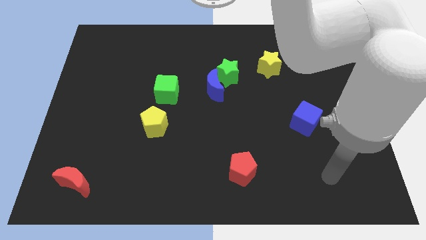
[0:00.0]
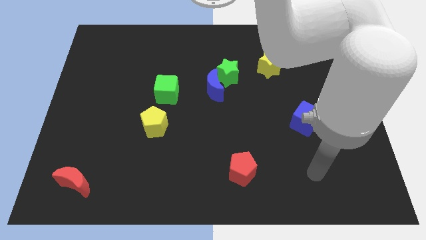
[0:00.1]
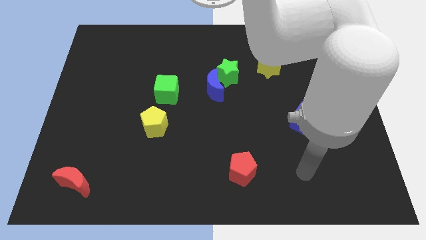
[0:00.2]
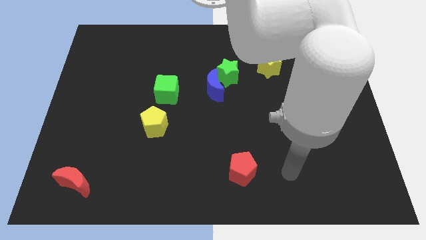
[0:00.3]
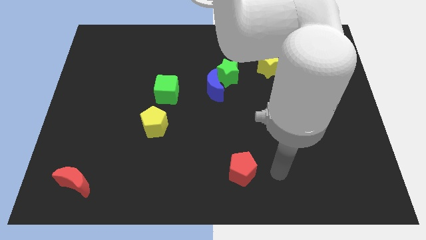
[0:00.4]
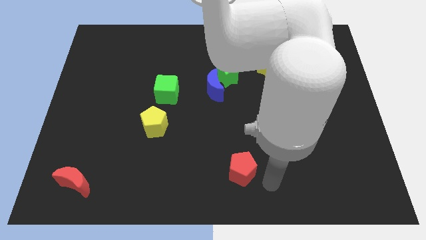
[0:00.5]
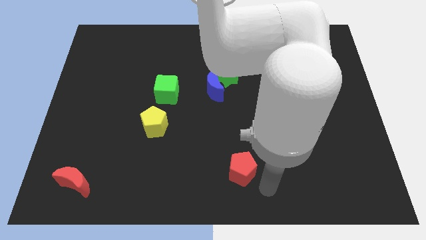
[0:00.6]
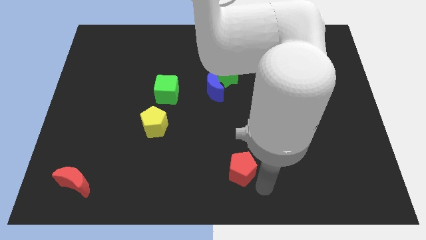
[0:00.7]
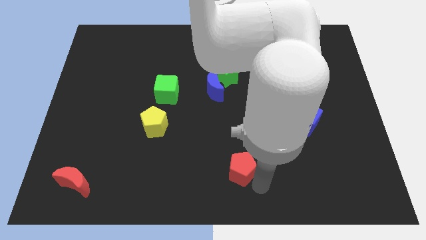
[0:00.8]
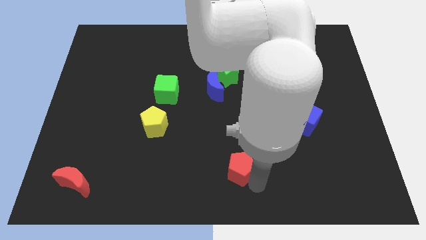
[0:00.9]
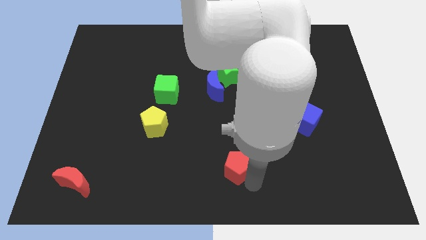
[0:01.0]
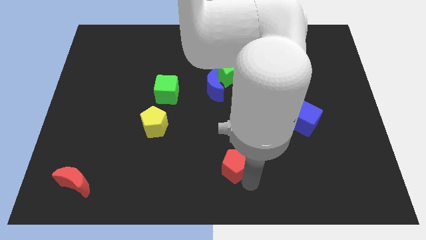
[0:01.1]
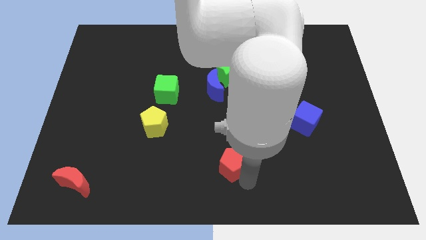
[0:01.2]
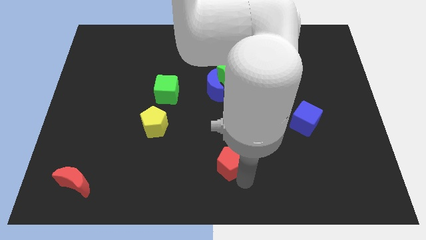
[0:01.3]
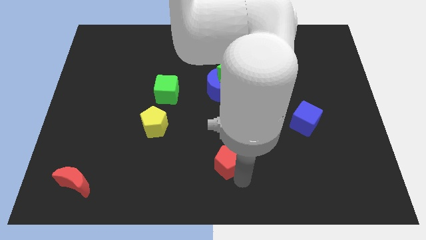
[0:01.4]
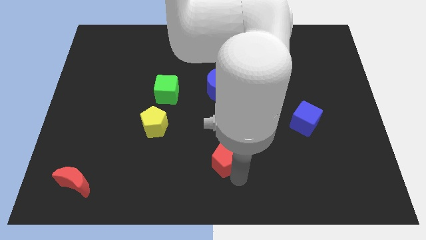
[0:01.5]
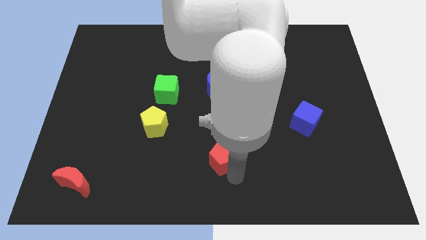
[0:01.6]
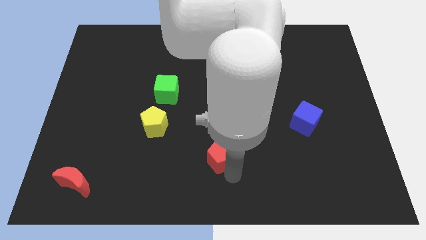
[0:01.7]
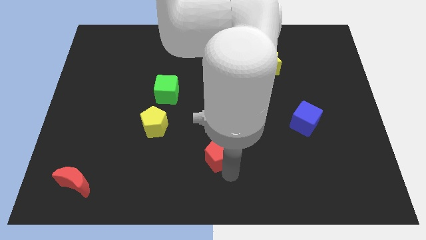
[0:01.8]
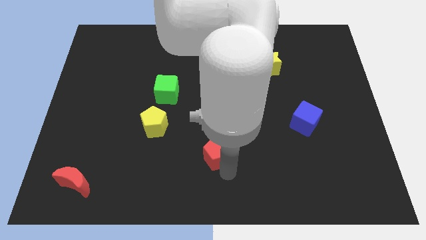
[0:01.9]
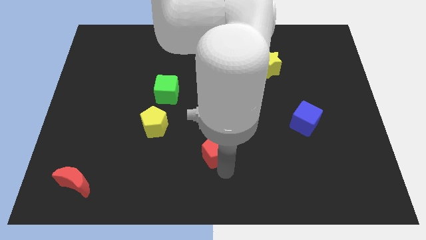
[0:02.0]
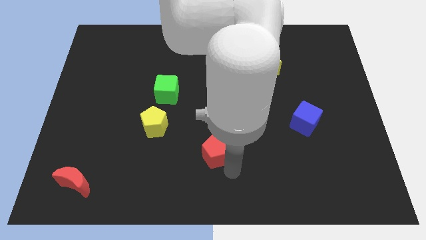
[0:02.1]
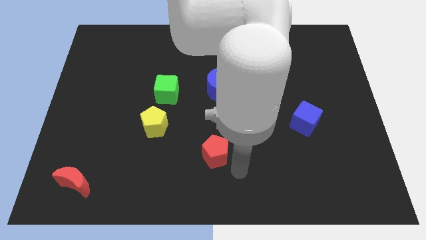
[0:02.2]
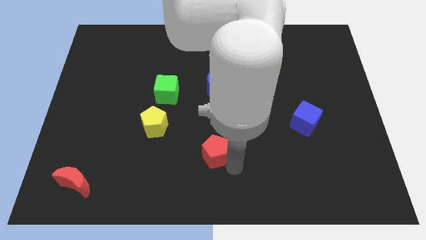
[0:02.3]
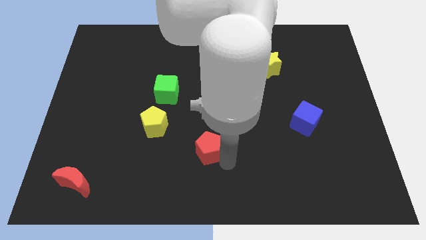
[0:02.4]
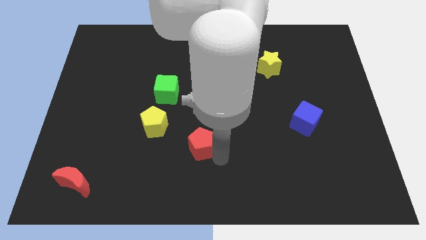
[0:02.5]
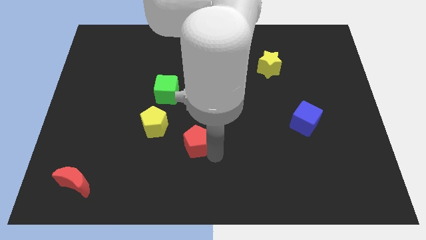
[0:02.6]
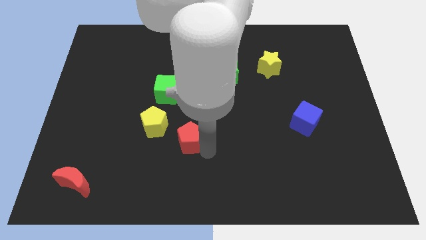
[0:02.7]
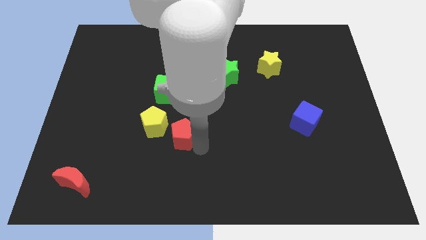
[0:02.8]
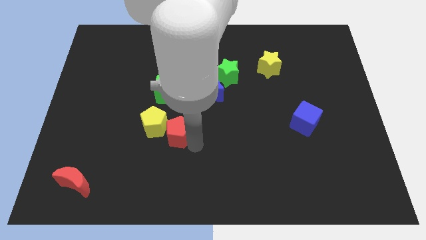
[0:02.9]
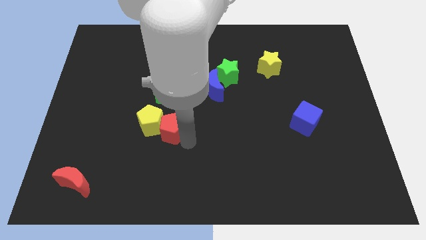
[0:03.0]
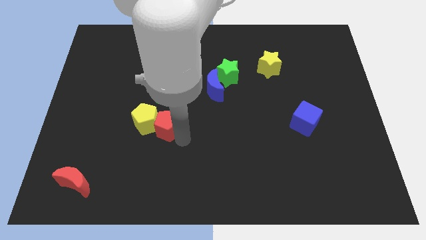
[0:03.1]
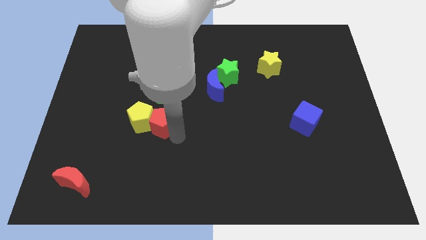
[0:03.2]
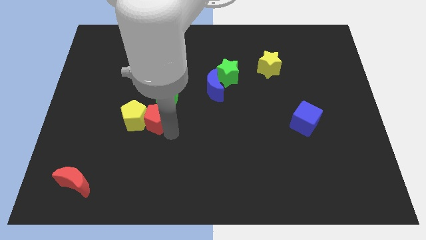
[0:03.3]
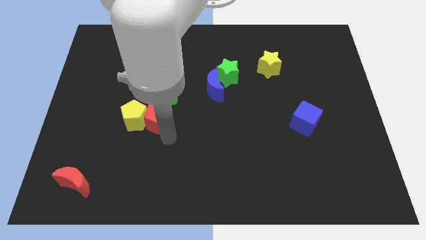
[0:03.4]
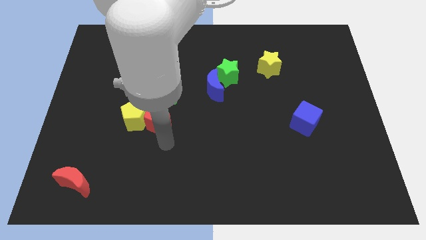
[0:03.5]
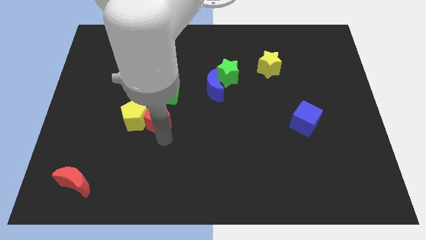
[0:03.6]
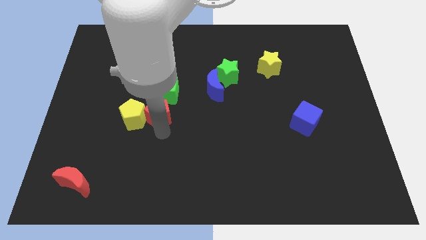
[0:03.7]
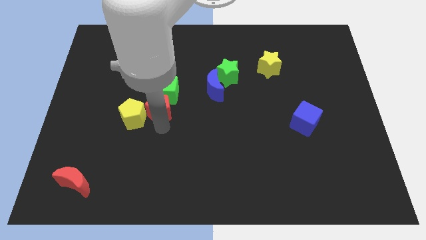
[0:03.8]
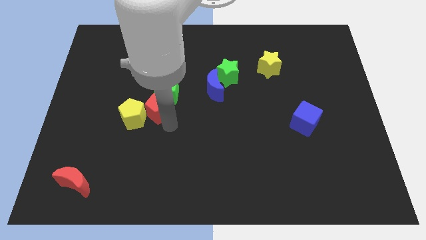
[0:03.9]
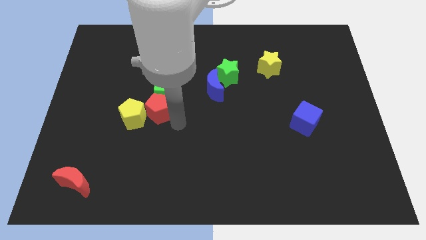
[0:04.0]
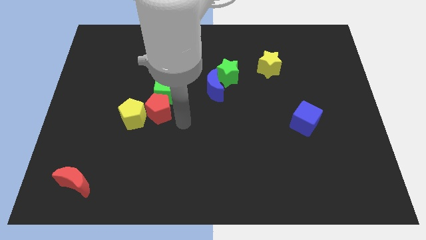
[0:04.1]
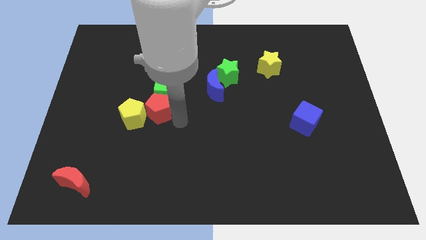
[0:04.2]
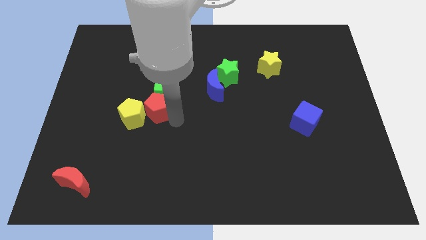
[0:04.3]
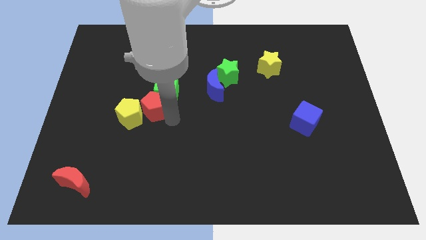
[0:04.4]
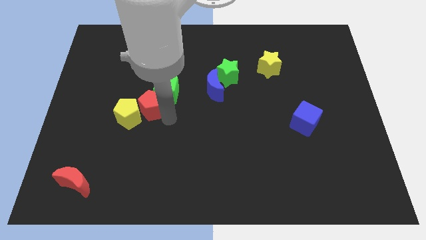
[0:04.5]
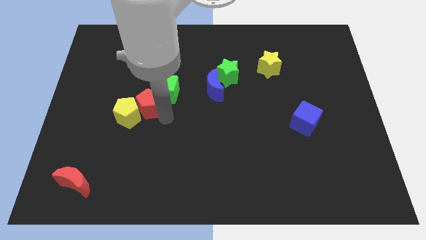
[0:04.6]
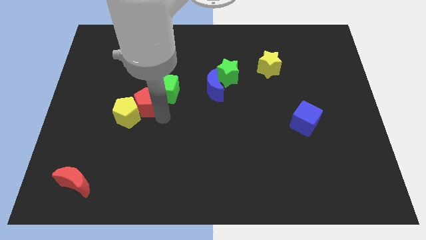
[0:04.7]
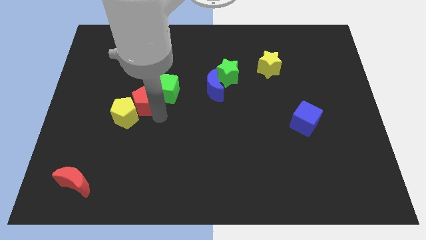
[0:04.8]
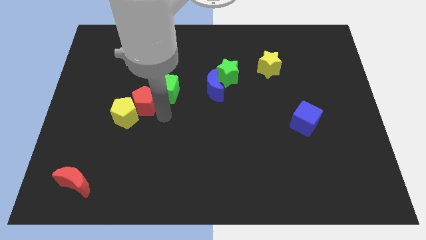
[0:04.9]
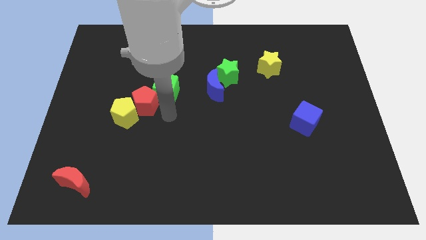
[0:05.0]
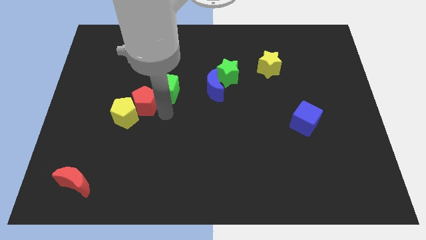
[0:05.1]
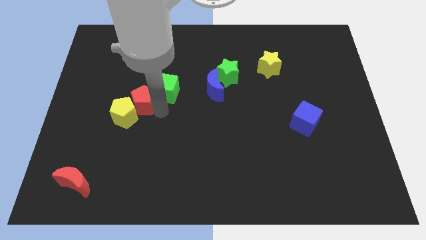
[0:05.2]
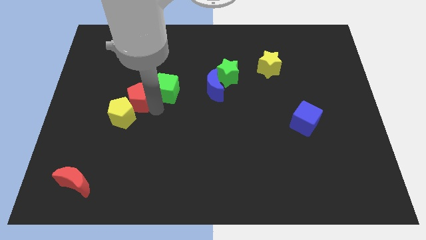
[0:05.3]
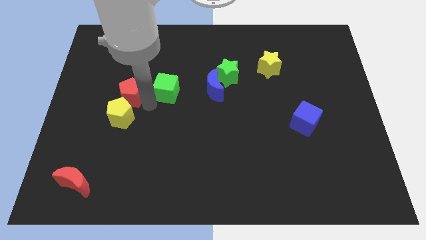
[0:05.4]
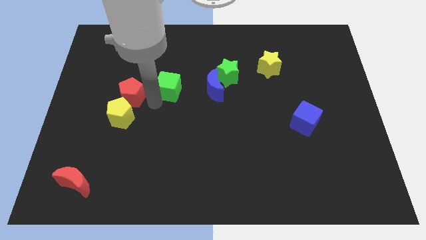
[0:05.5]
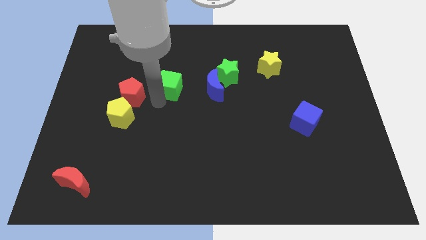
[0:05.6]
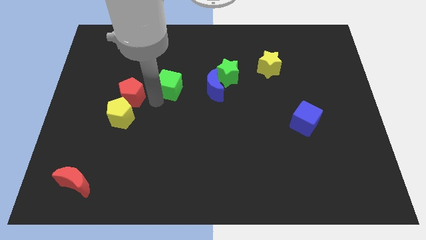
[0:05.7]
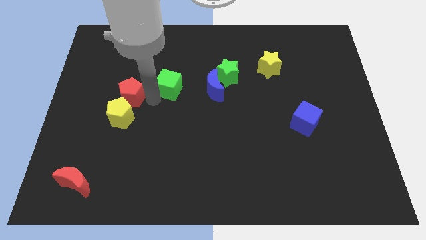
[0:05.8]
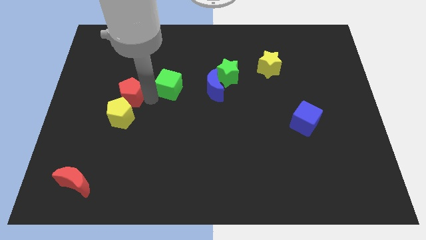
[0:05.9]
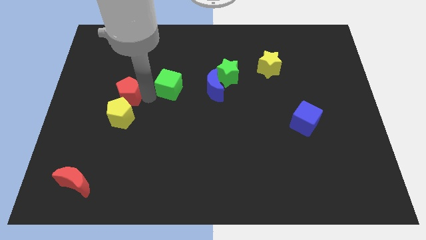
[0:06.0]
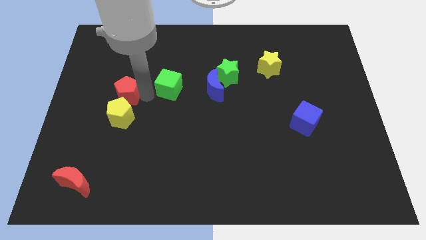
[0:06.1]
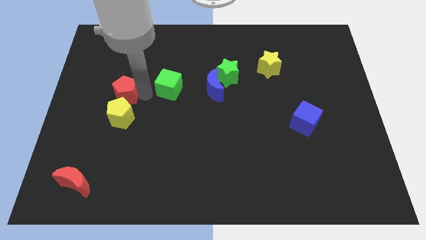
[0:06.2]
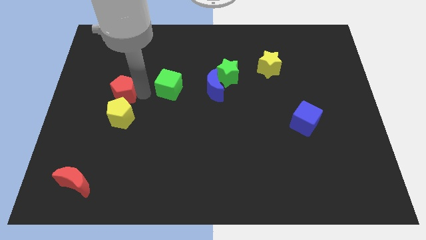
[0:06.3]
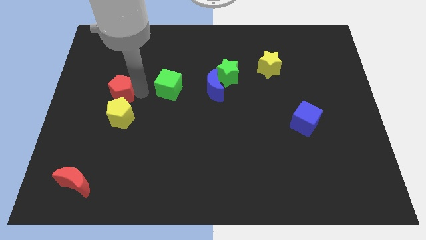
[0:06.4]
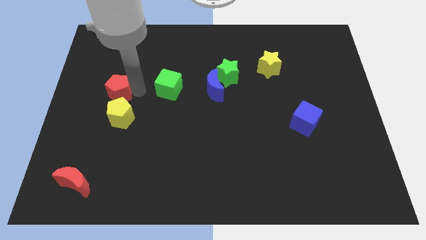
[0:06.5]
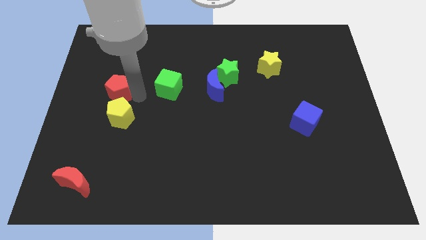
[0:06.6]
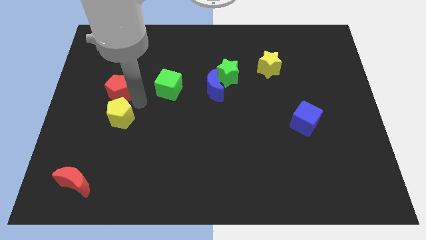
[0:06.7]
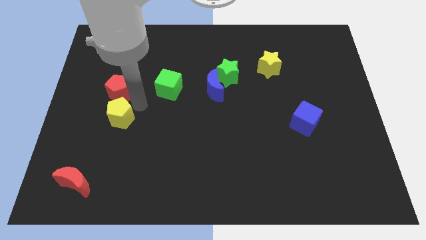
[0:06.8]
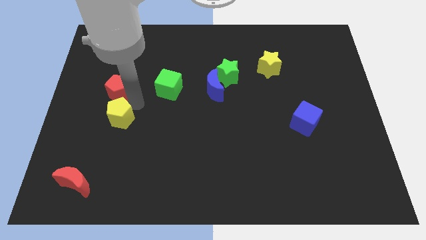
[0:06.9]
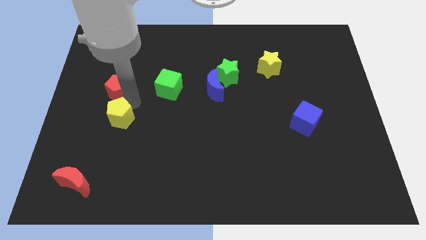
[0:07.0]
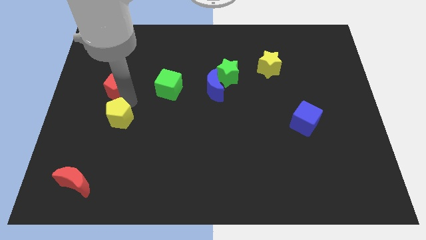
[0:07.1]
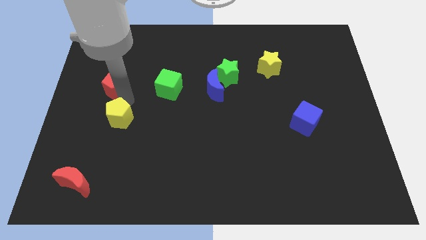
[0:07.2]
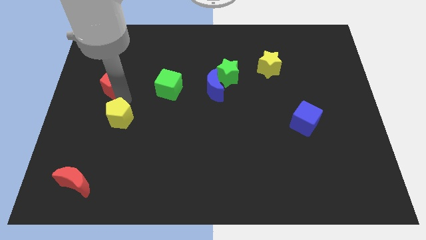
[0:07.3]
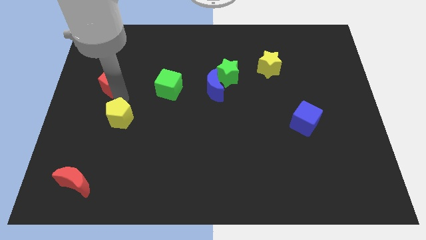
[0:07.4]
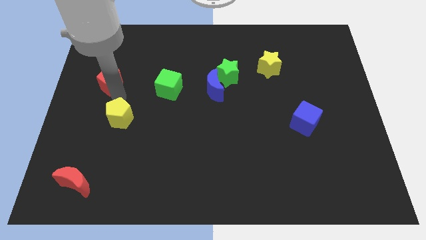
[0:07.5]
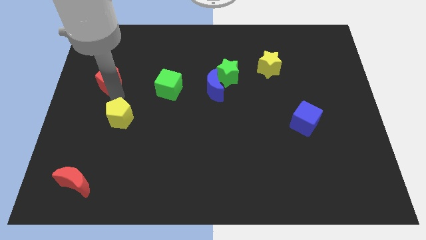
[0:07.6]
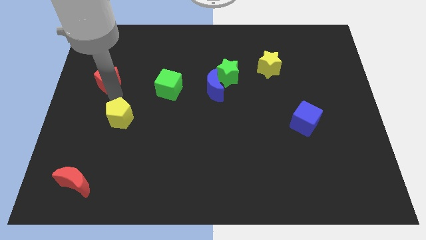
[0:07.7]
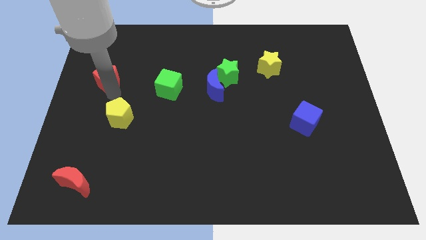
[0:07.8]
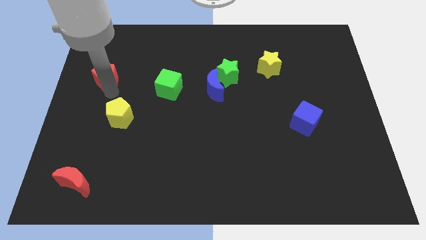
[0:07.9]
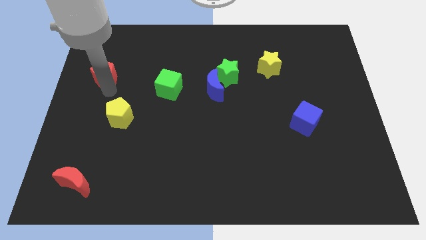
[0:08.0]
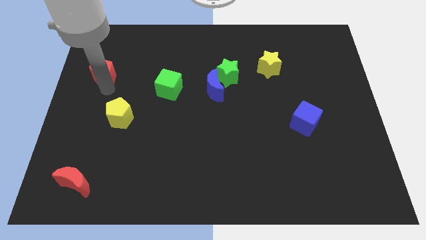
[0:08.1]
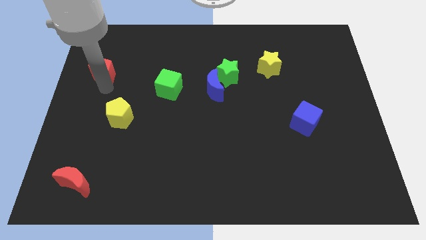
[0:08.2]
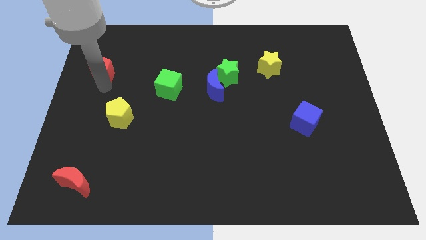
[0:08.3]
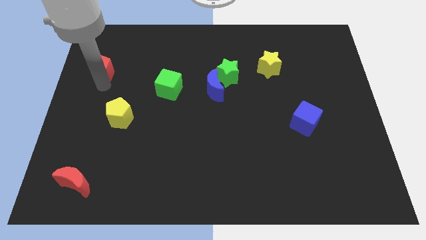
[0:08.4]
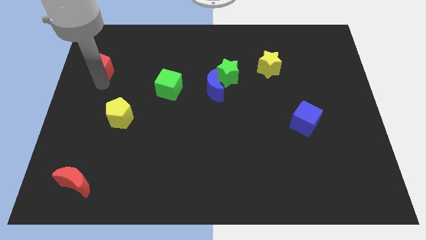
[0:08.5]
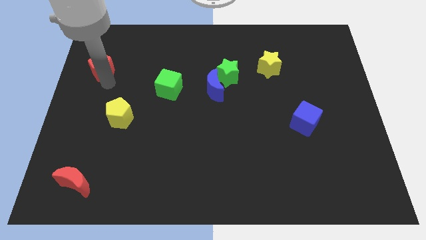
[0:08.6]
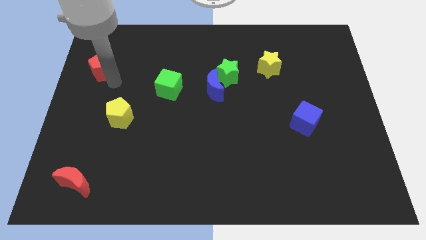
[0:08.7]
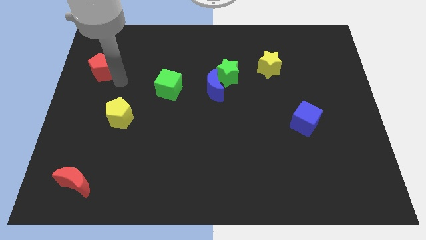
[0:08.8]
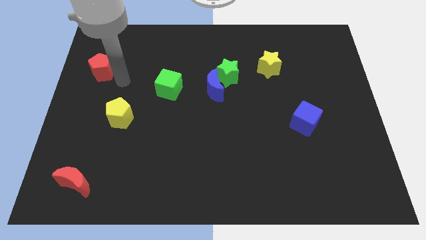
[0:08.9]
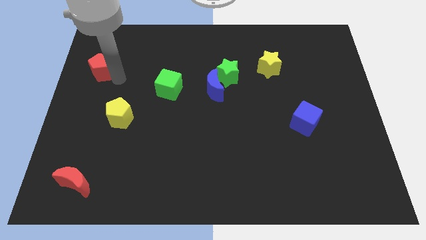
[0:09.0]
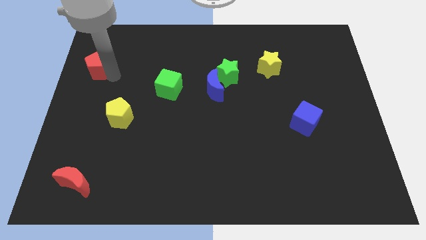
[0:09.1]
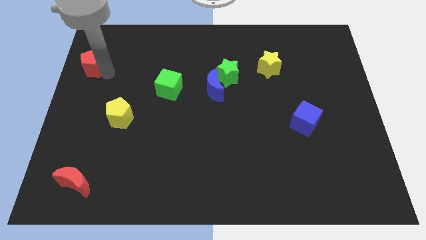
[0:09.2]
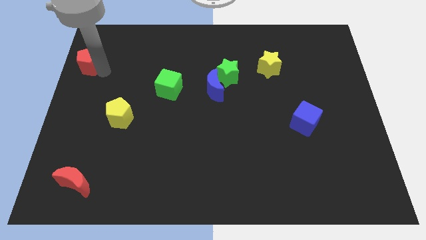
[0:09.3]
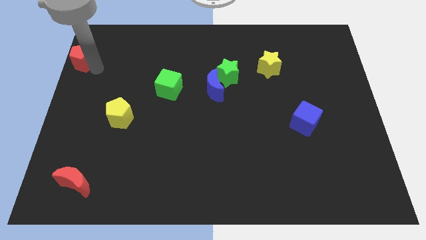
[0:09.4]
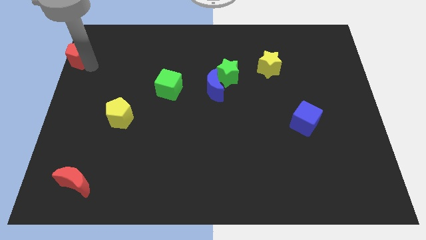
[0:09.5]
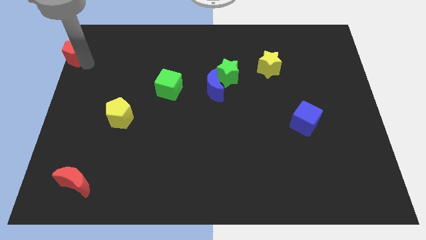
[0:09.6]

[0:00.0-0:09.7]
slide the red pentagon to the top left corner
